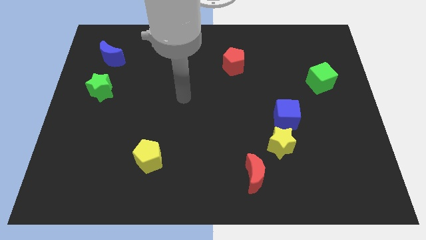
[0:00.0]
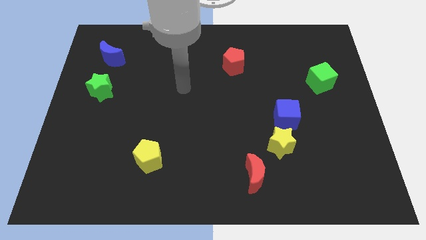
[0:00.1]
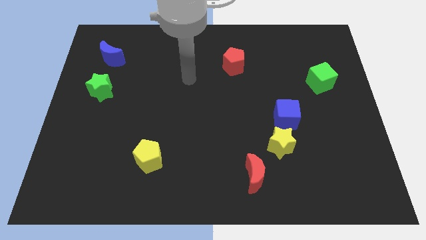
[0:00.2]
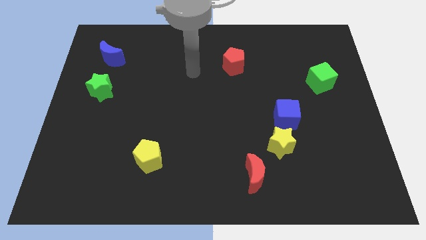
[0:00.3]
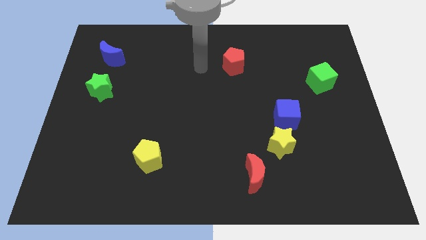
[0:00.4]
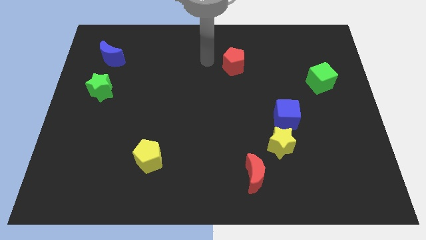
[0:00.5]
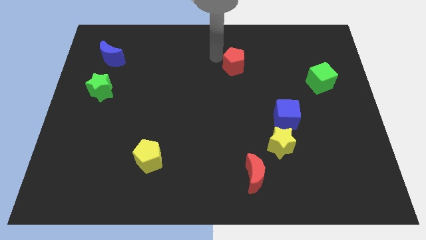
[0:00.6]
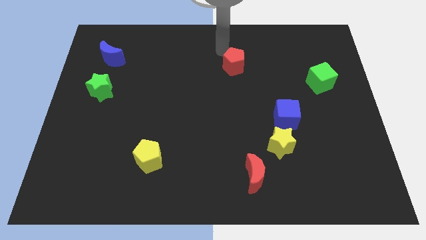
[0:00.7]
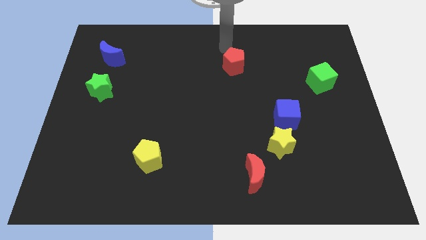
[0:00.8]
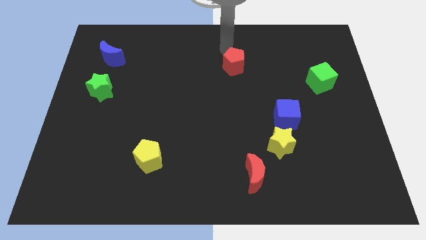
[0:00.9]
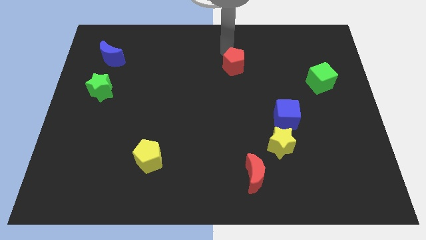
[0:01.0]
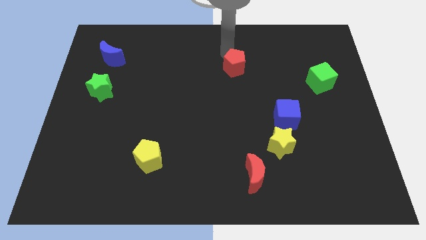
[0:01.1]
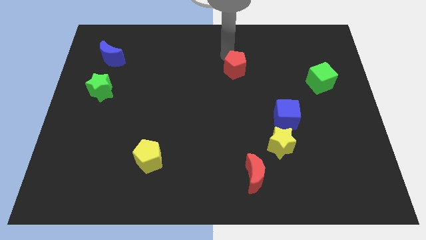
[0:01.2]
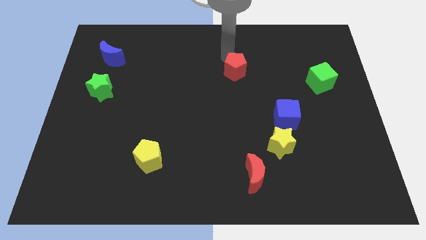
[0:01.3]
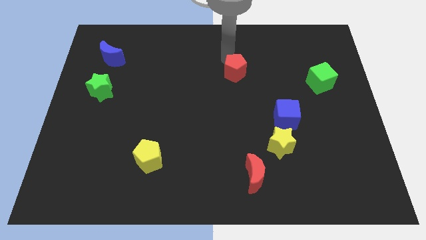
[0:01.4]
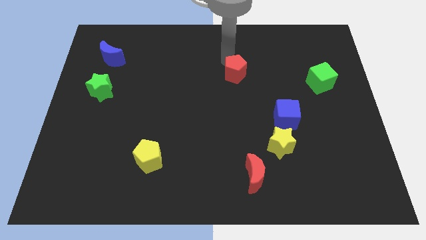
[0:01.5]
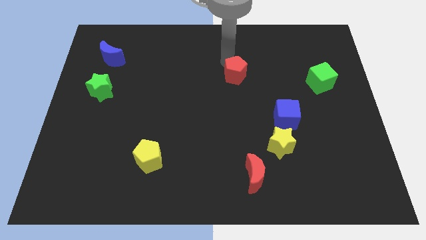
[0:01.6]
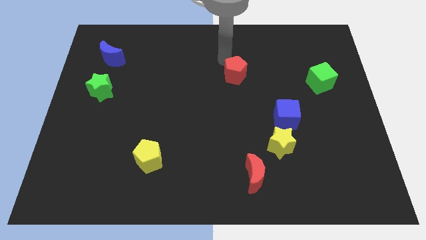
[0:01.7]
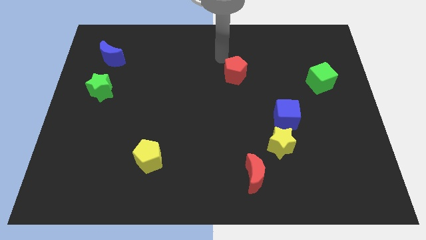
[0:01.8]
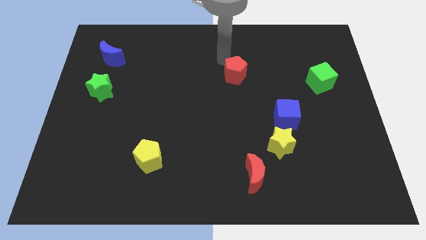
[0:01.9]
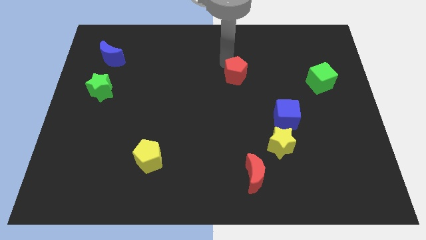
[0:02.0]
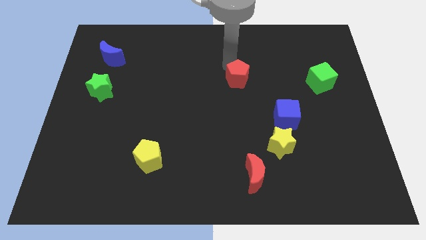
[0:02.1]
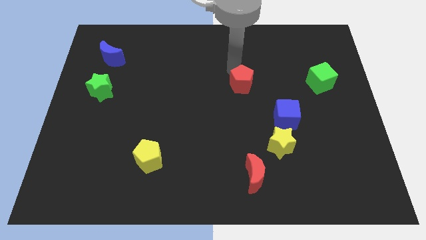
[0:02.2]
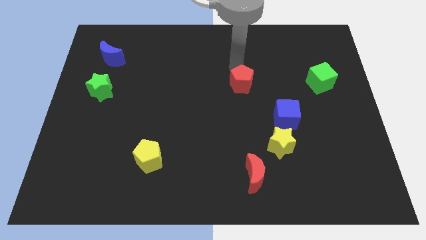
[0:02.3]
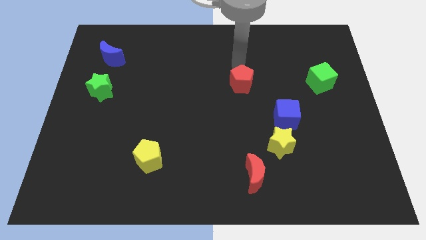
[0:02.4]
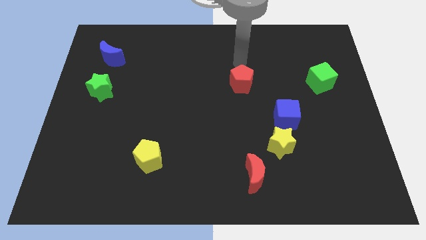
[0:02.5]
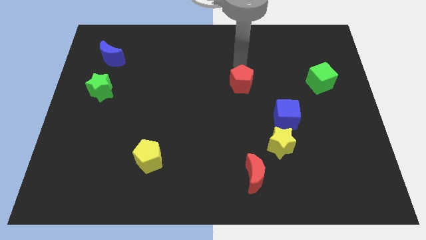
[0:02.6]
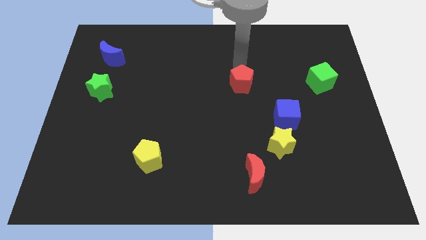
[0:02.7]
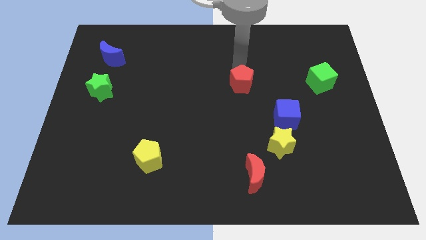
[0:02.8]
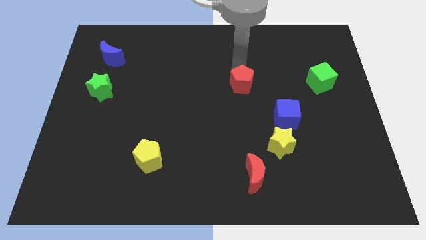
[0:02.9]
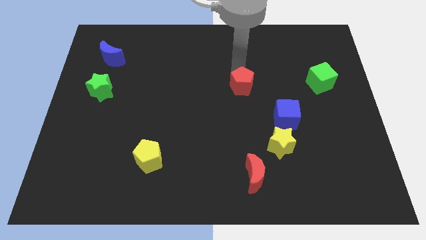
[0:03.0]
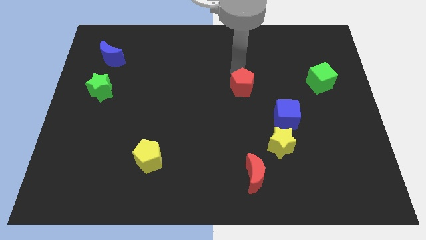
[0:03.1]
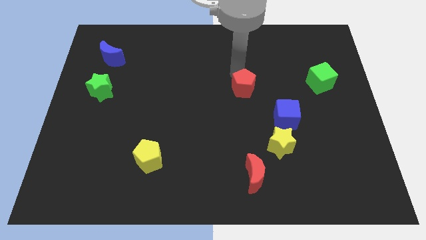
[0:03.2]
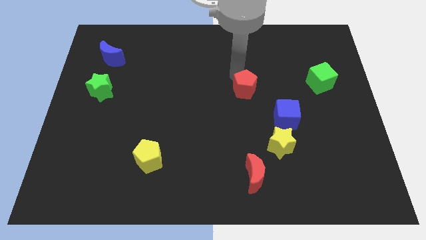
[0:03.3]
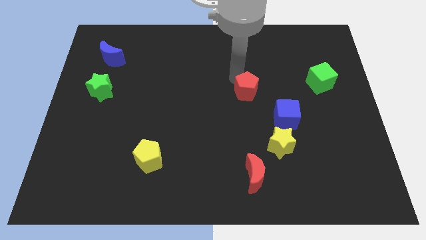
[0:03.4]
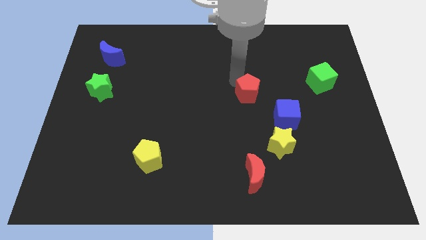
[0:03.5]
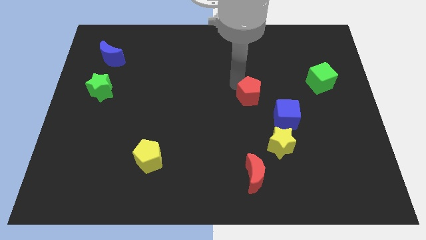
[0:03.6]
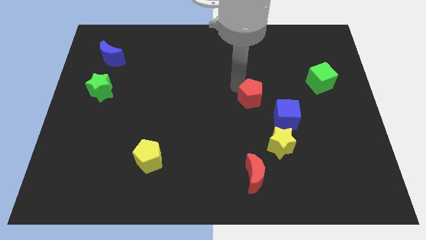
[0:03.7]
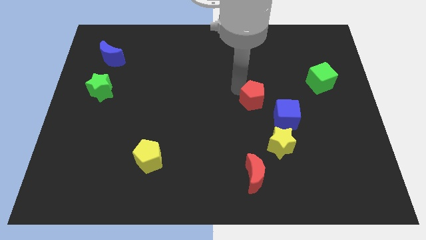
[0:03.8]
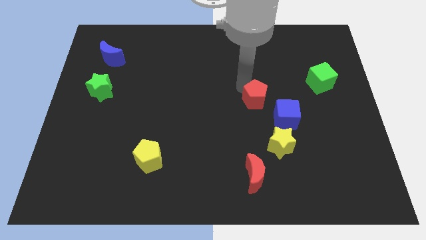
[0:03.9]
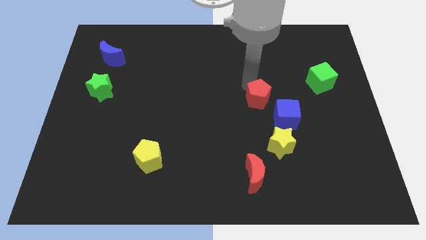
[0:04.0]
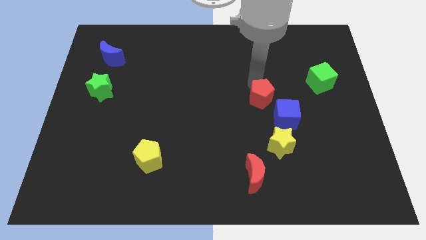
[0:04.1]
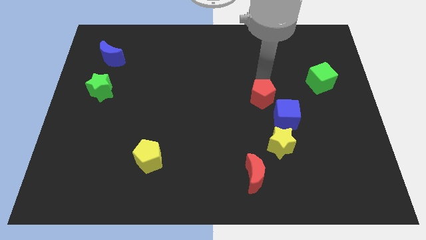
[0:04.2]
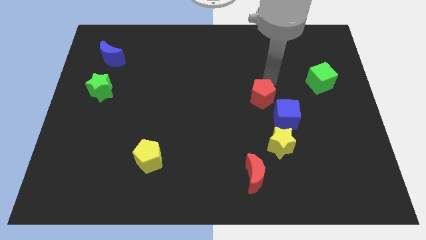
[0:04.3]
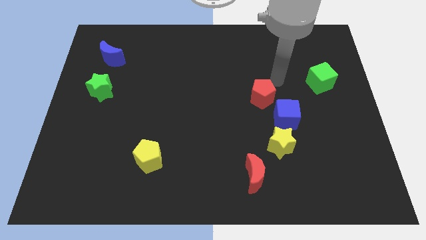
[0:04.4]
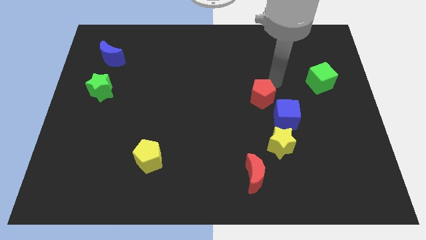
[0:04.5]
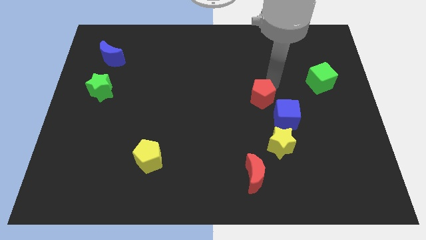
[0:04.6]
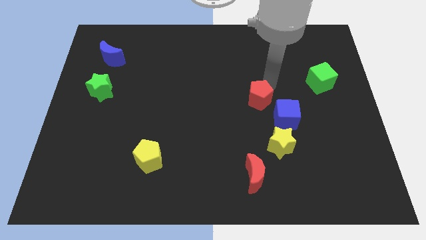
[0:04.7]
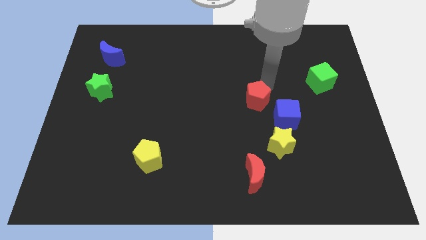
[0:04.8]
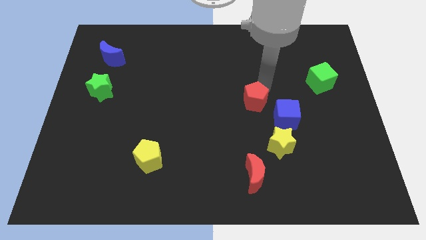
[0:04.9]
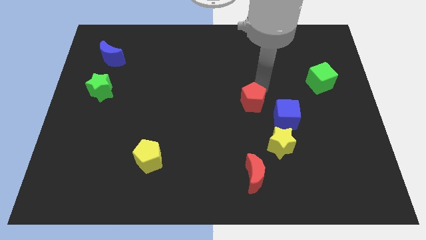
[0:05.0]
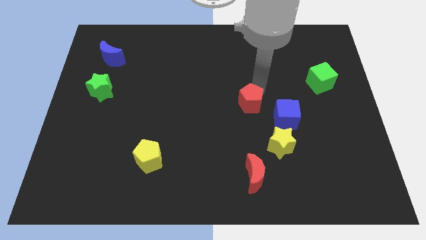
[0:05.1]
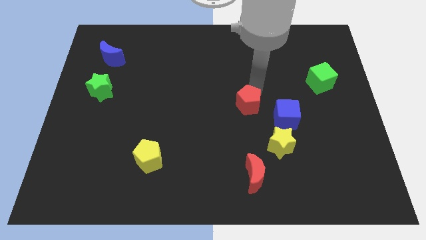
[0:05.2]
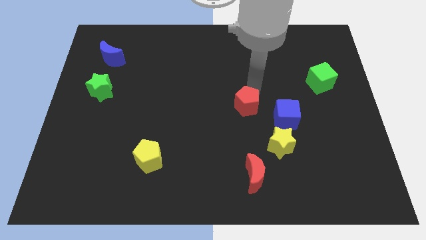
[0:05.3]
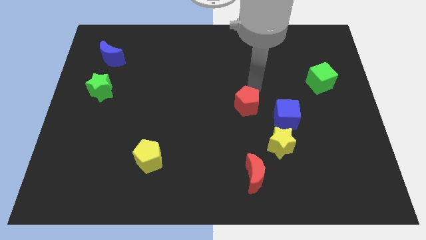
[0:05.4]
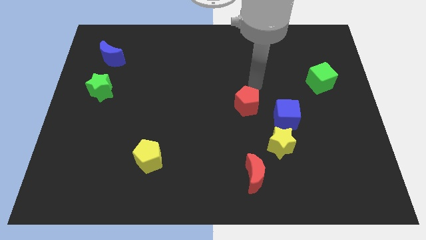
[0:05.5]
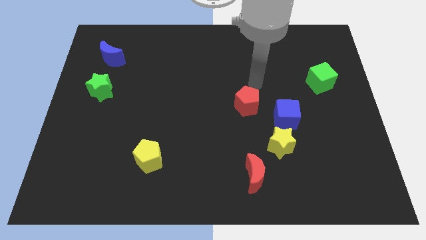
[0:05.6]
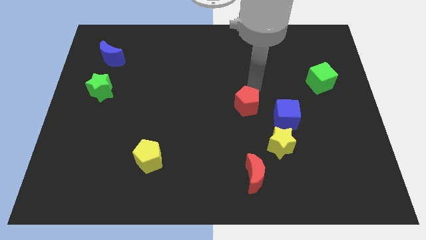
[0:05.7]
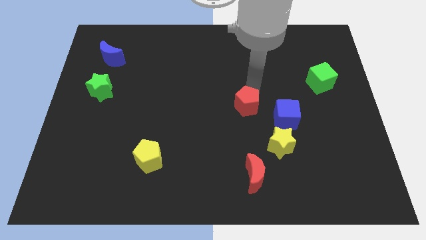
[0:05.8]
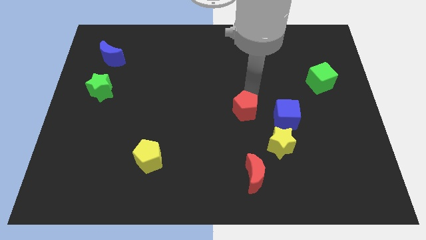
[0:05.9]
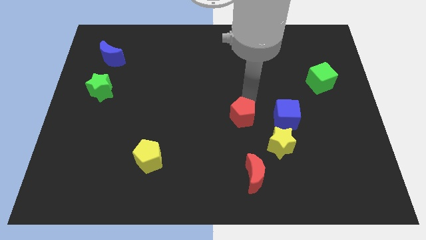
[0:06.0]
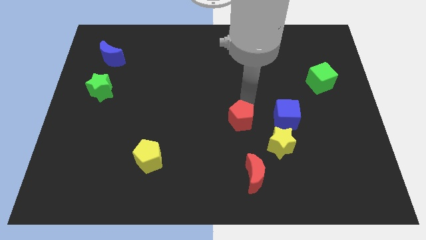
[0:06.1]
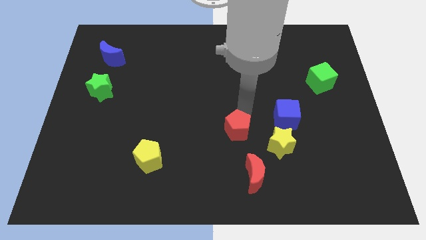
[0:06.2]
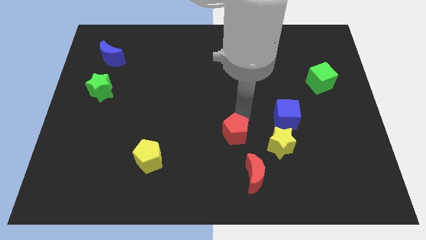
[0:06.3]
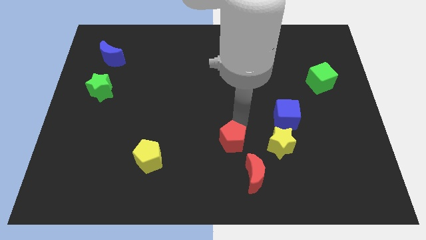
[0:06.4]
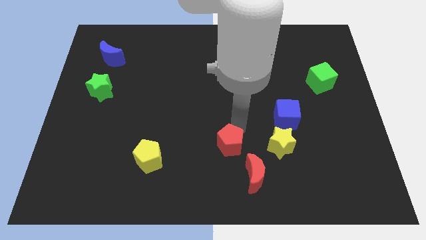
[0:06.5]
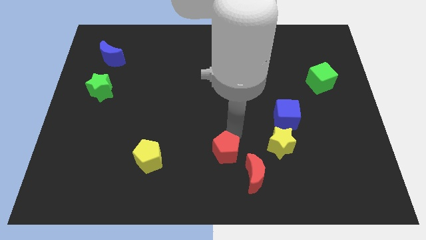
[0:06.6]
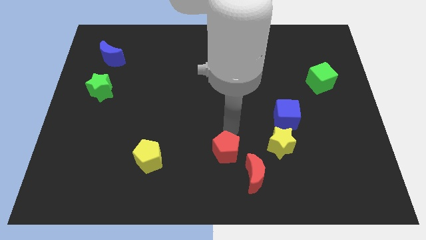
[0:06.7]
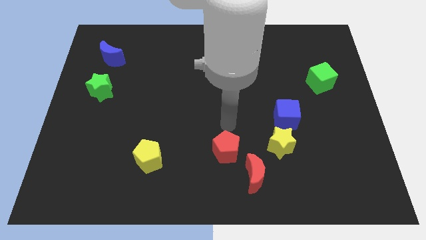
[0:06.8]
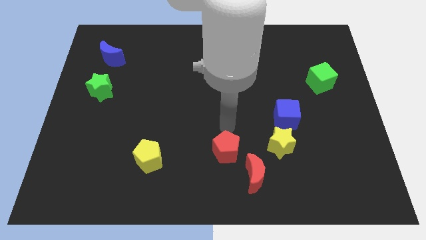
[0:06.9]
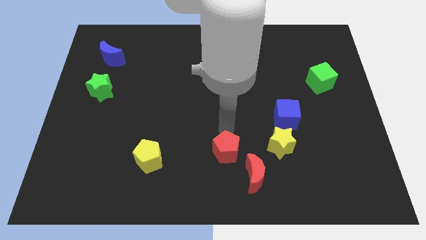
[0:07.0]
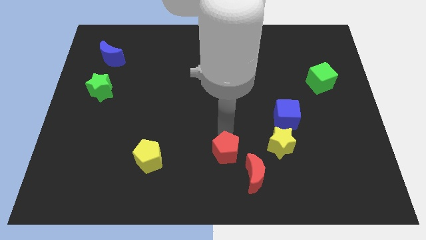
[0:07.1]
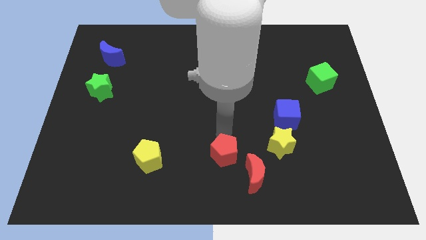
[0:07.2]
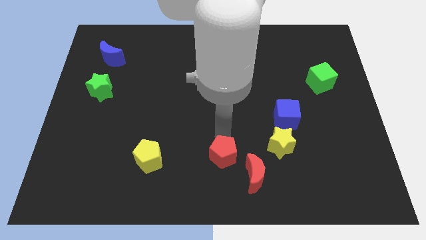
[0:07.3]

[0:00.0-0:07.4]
move the red pentagon to the bottom side
